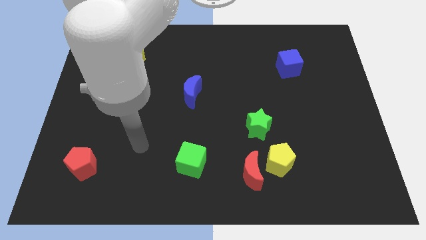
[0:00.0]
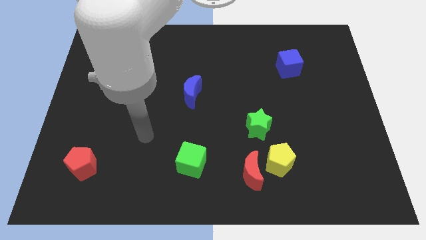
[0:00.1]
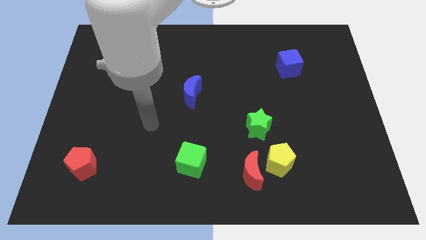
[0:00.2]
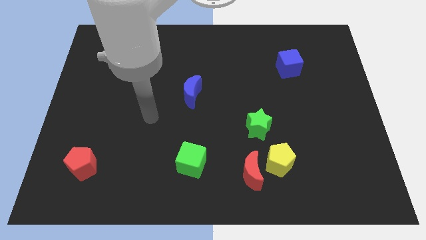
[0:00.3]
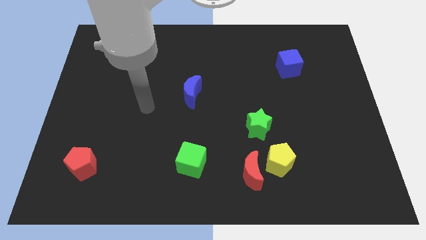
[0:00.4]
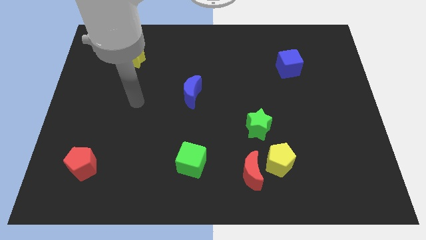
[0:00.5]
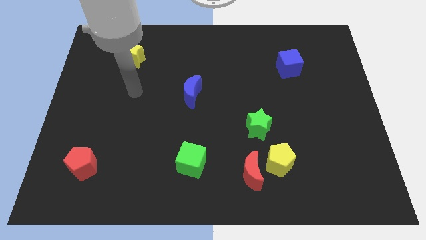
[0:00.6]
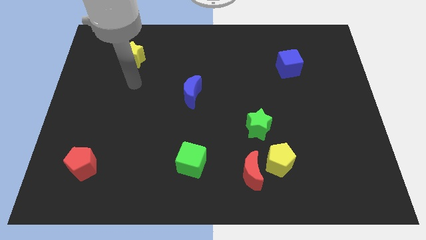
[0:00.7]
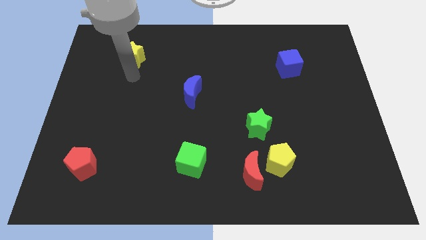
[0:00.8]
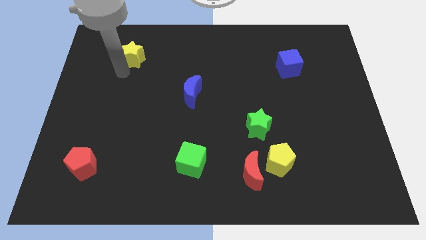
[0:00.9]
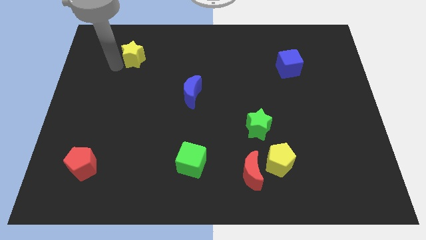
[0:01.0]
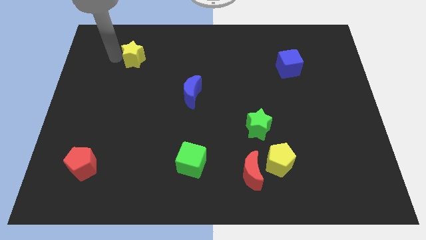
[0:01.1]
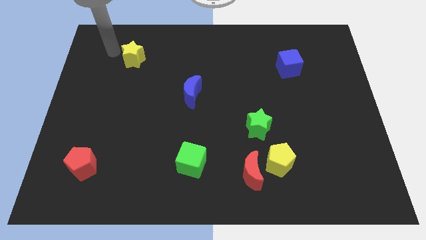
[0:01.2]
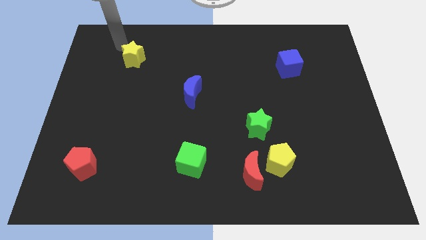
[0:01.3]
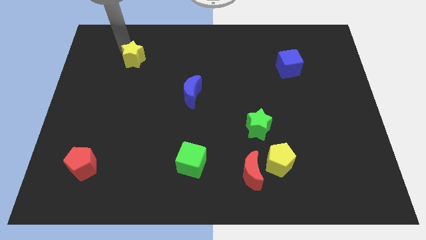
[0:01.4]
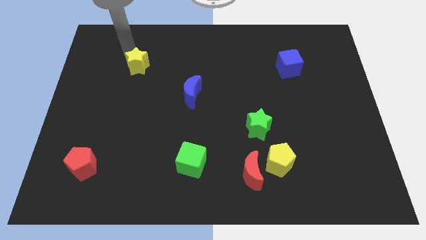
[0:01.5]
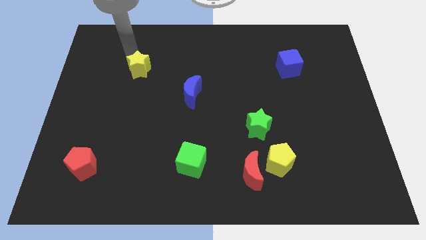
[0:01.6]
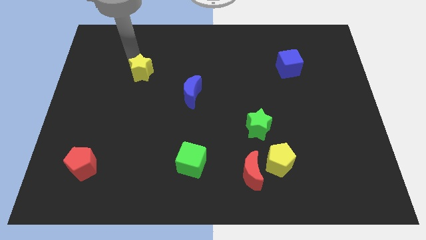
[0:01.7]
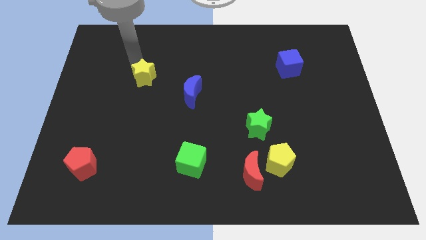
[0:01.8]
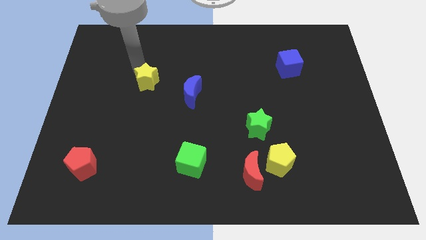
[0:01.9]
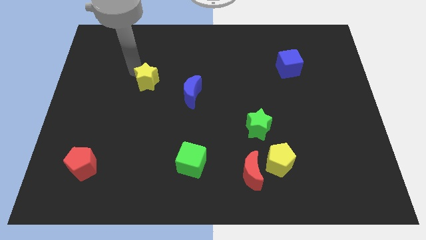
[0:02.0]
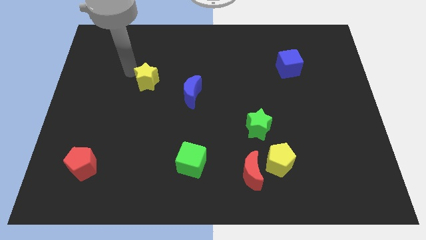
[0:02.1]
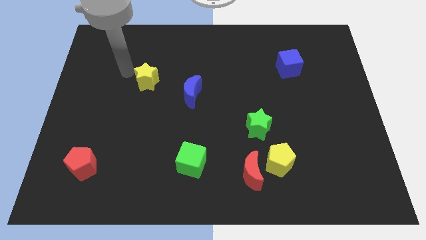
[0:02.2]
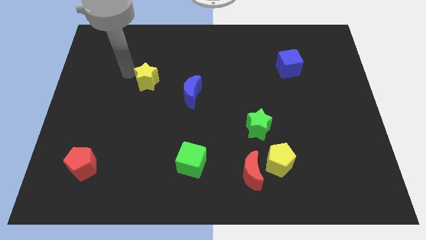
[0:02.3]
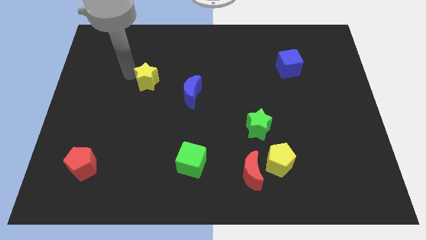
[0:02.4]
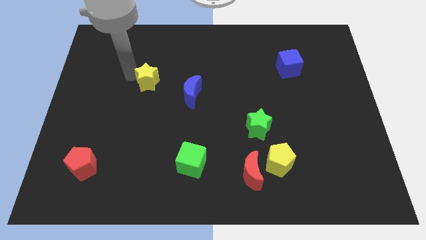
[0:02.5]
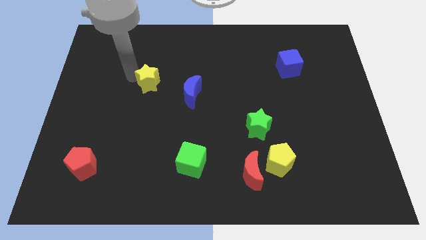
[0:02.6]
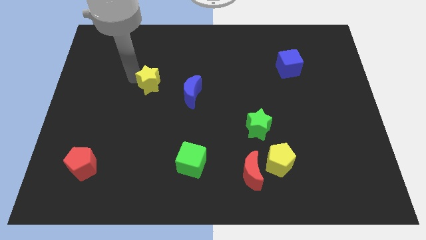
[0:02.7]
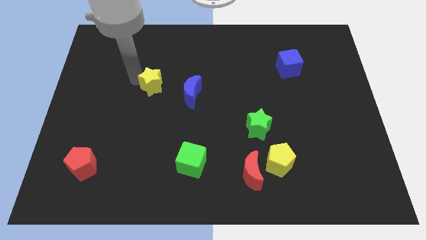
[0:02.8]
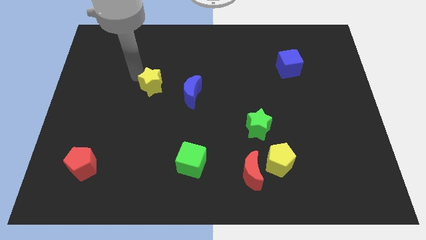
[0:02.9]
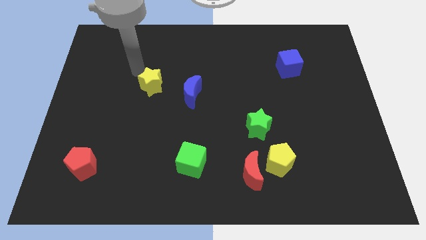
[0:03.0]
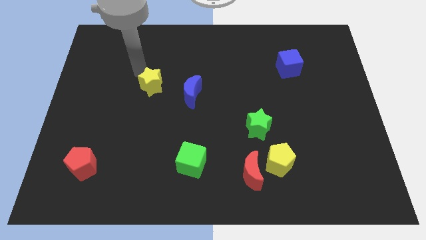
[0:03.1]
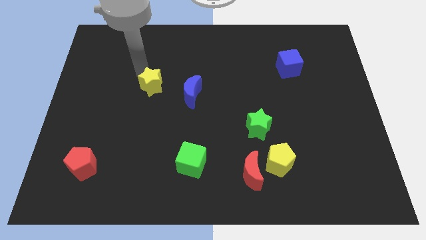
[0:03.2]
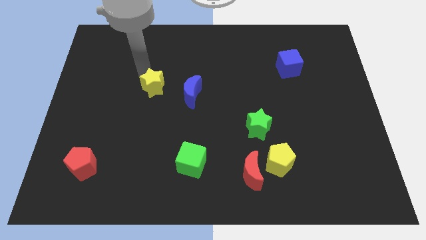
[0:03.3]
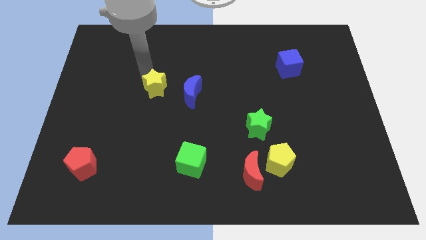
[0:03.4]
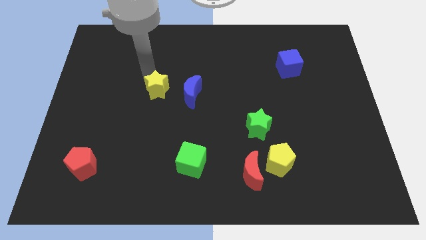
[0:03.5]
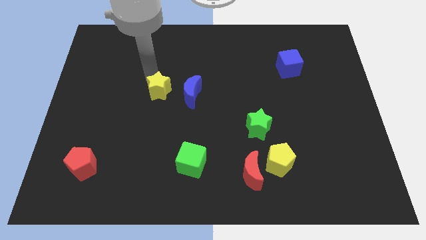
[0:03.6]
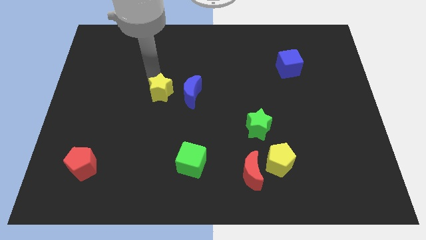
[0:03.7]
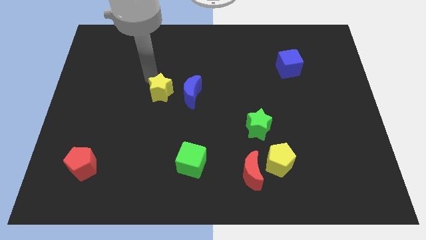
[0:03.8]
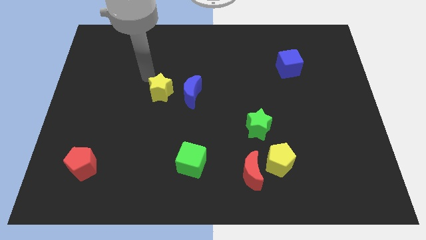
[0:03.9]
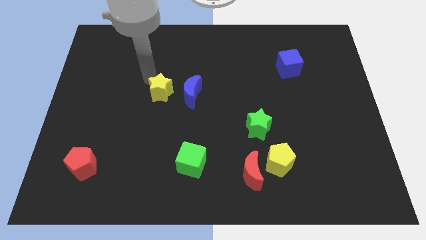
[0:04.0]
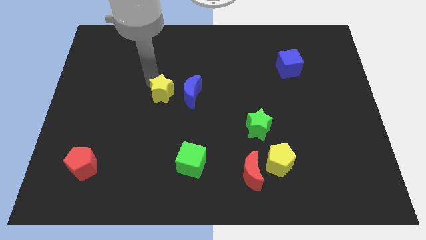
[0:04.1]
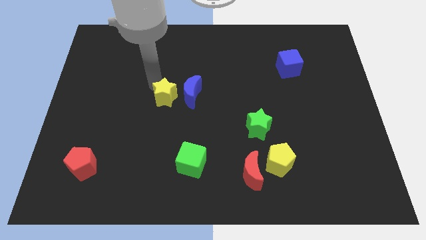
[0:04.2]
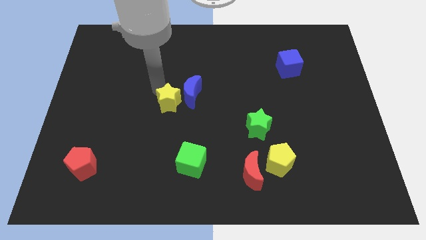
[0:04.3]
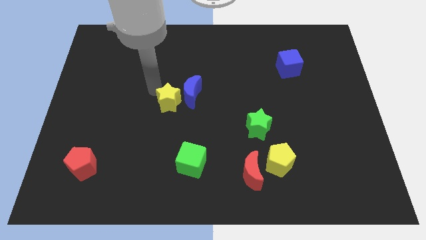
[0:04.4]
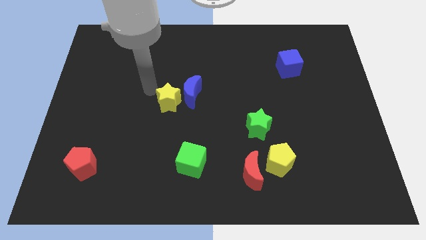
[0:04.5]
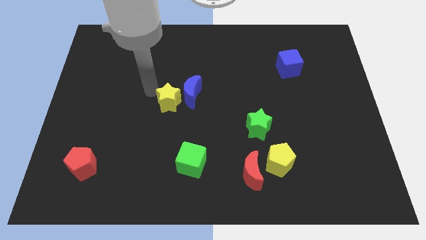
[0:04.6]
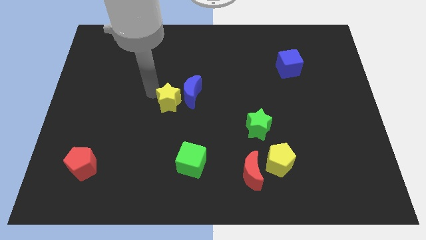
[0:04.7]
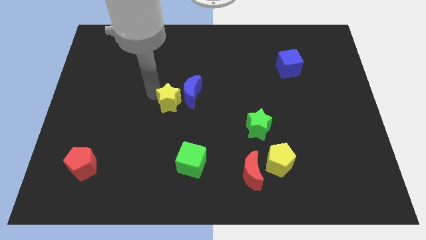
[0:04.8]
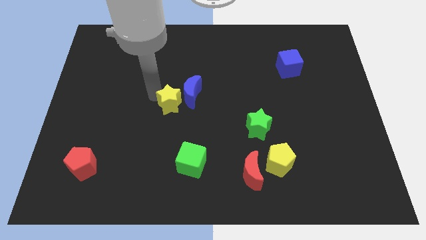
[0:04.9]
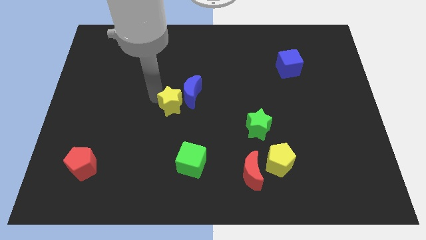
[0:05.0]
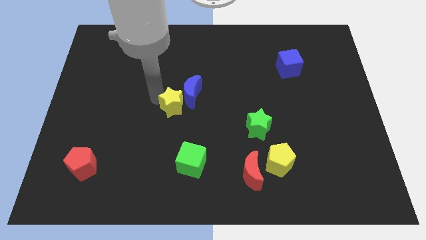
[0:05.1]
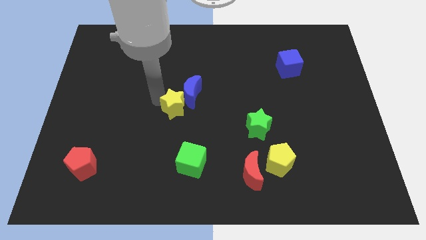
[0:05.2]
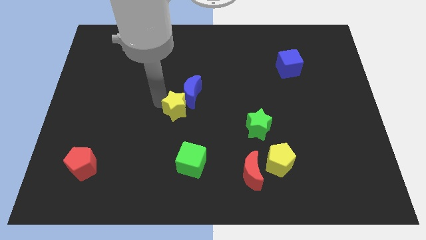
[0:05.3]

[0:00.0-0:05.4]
push the yellow star downwards and right diagonally

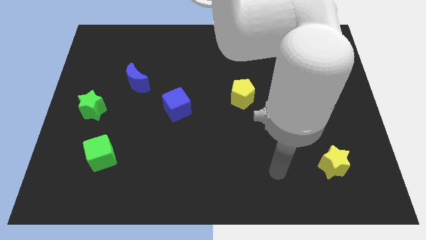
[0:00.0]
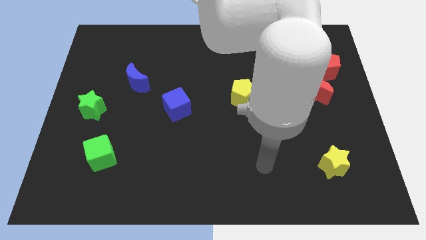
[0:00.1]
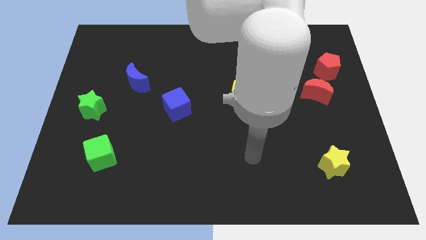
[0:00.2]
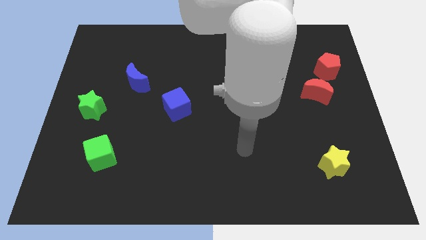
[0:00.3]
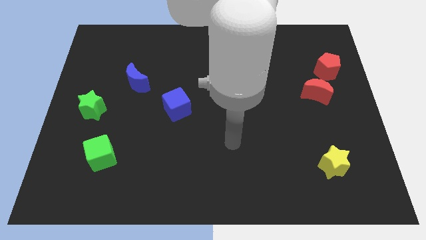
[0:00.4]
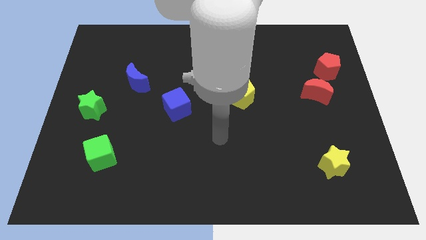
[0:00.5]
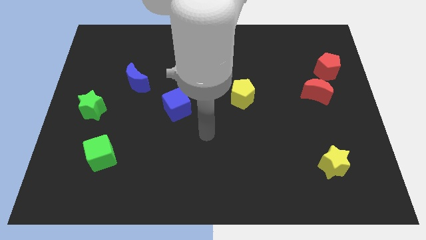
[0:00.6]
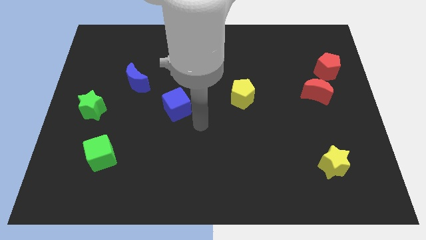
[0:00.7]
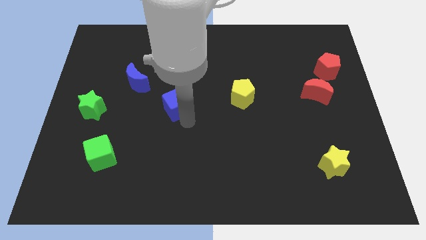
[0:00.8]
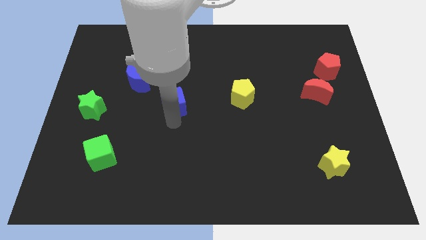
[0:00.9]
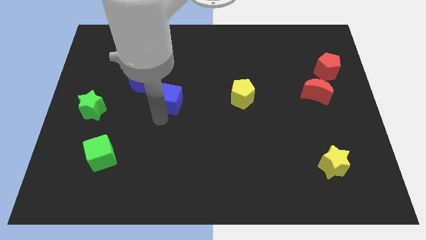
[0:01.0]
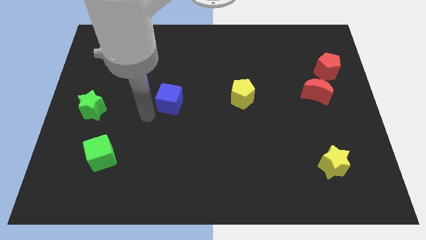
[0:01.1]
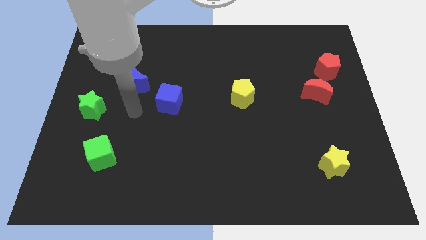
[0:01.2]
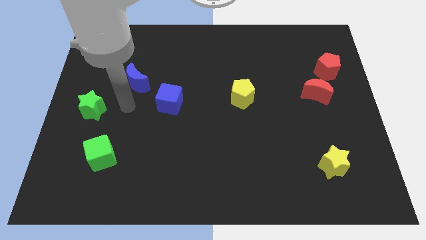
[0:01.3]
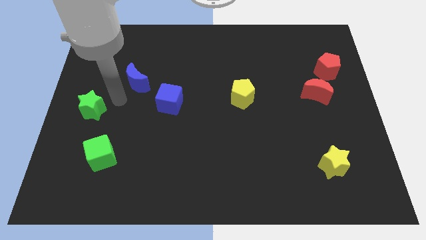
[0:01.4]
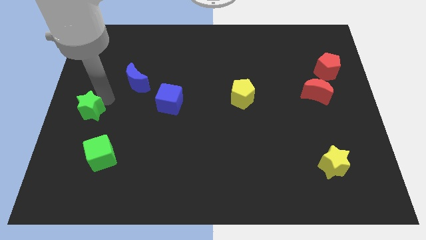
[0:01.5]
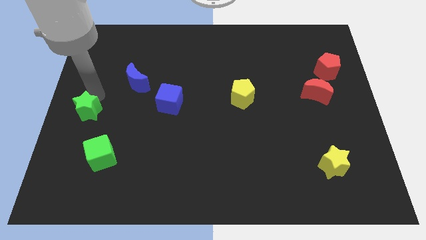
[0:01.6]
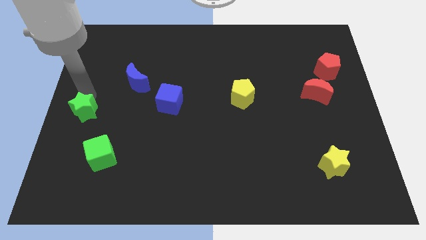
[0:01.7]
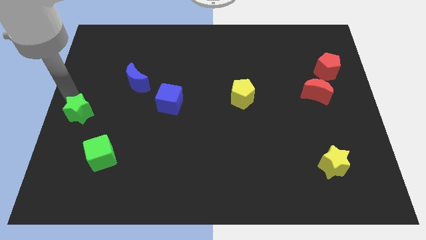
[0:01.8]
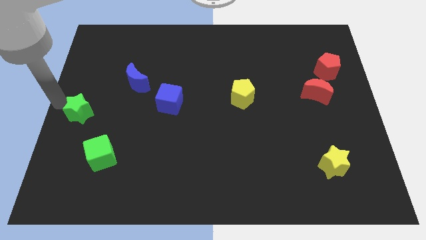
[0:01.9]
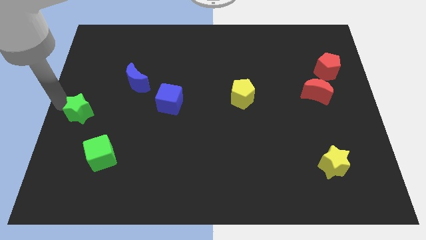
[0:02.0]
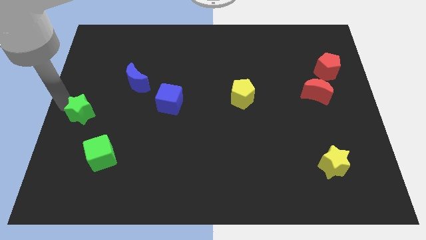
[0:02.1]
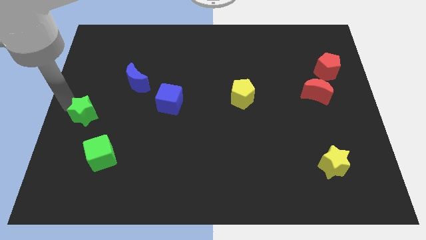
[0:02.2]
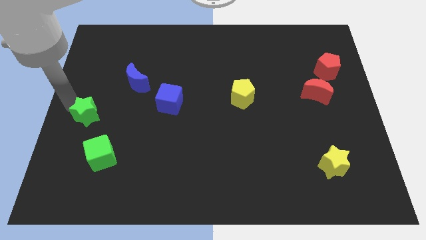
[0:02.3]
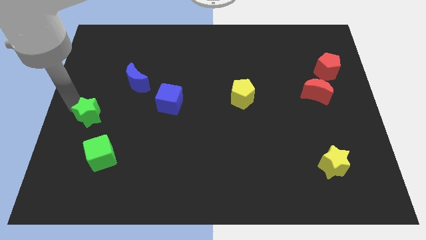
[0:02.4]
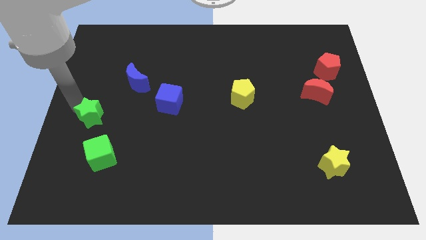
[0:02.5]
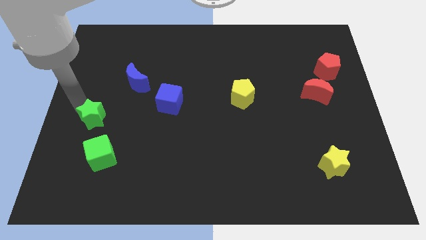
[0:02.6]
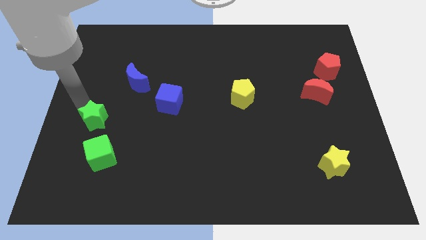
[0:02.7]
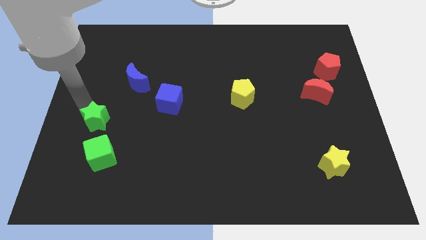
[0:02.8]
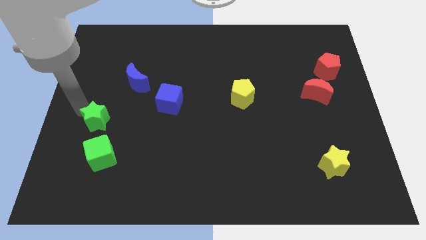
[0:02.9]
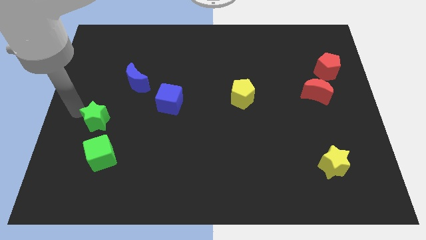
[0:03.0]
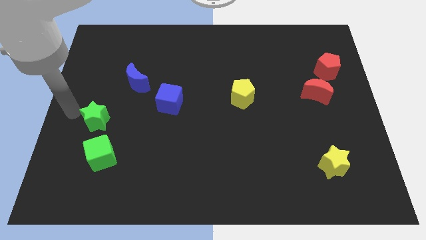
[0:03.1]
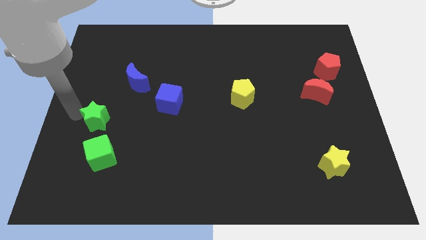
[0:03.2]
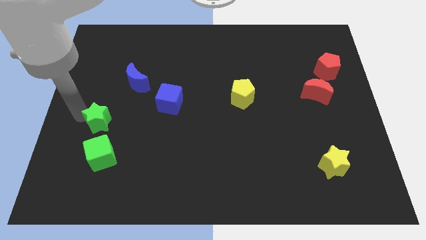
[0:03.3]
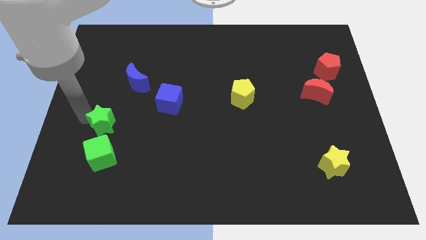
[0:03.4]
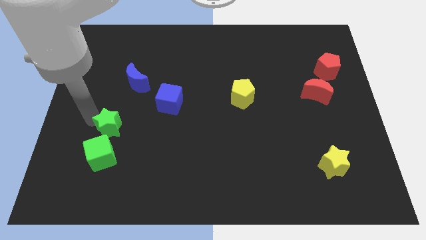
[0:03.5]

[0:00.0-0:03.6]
slightly push the green star diagonally downwards and right
